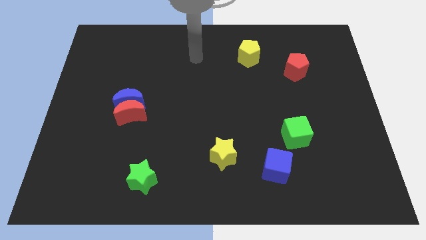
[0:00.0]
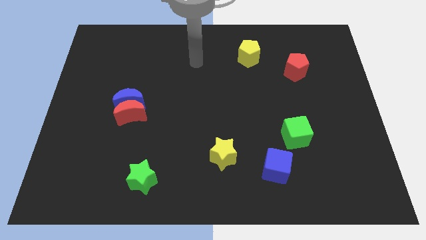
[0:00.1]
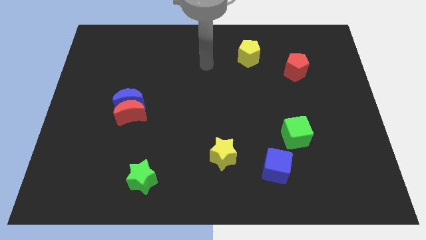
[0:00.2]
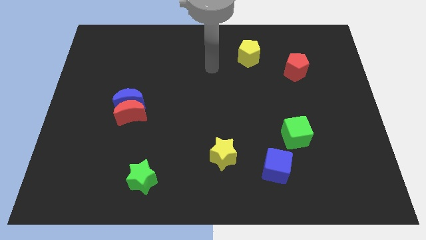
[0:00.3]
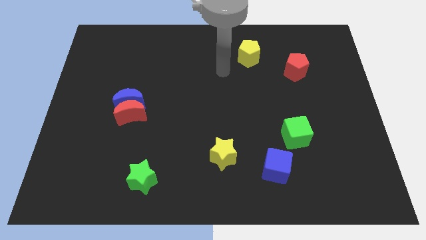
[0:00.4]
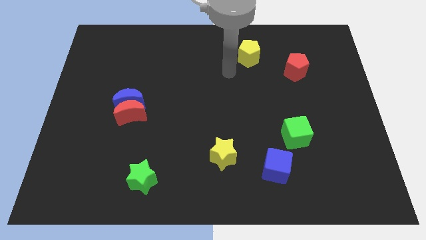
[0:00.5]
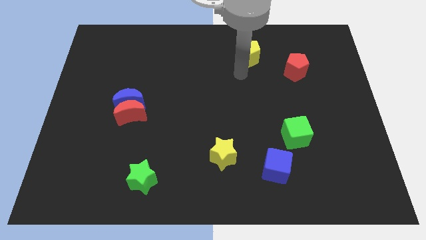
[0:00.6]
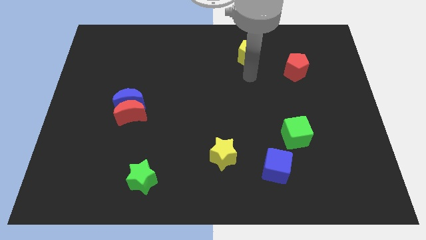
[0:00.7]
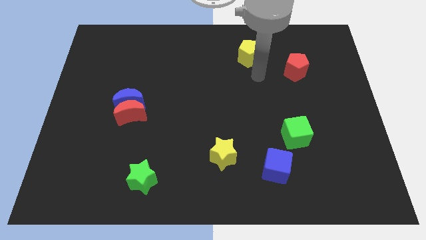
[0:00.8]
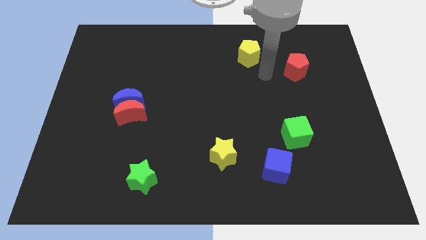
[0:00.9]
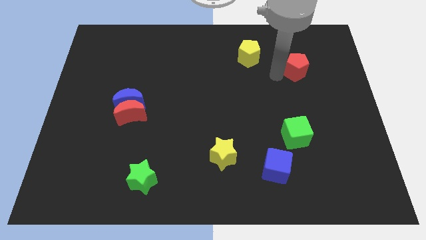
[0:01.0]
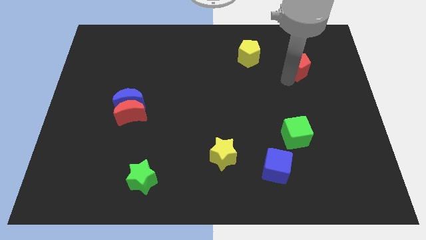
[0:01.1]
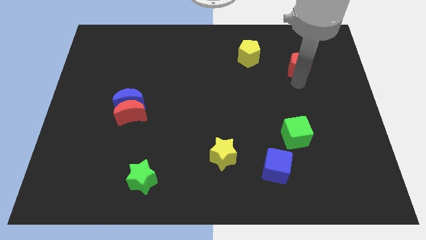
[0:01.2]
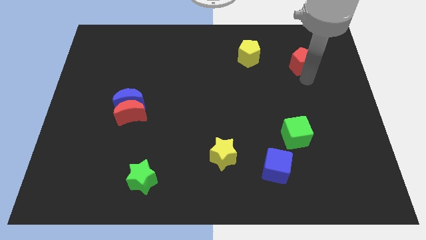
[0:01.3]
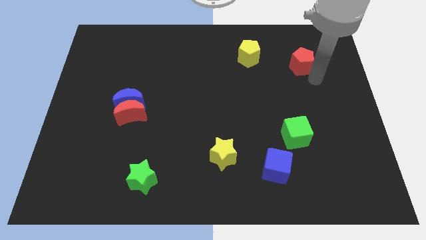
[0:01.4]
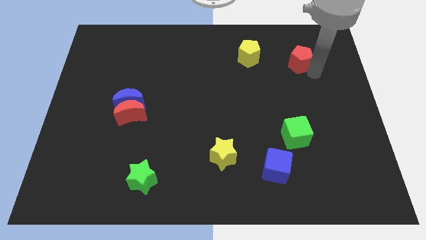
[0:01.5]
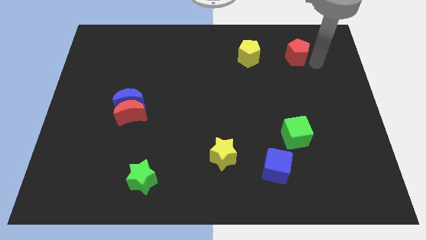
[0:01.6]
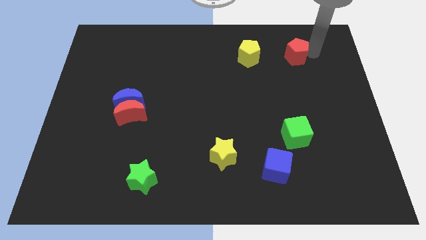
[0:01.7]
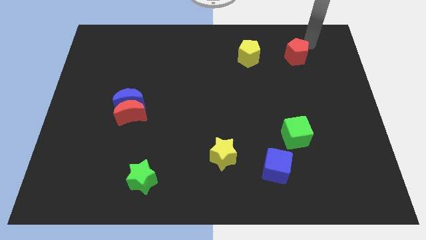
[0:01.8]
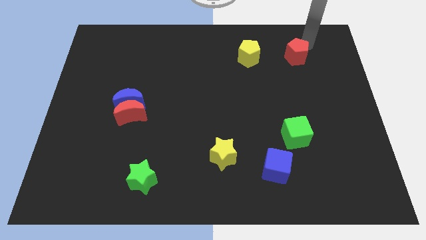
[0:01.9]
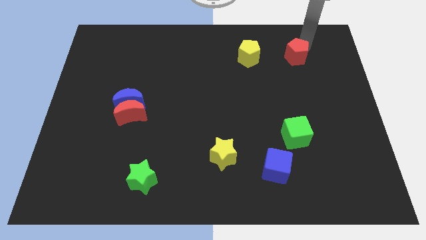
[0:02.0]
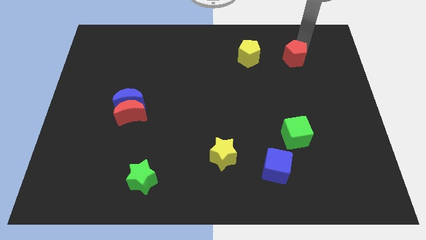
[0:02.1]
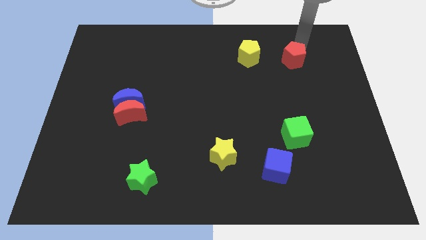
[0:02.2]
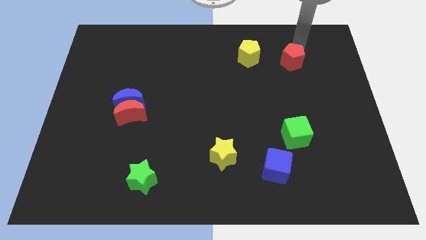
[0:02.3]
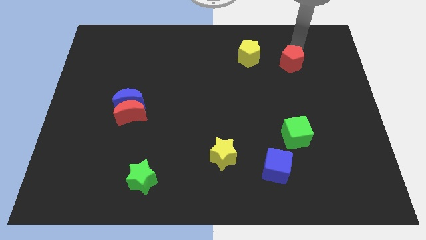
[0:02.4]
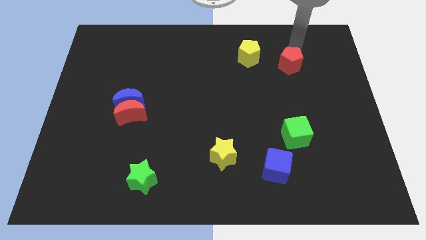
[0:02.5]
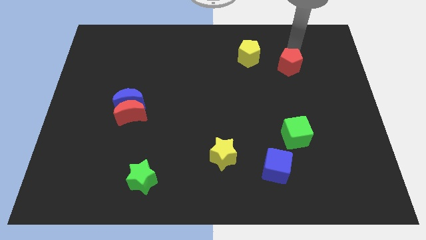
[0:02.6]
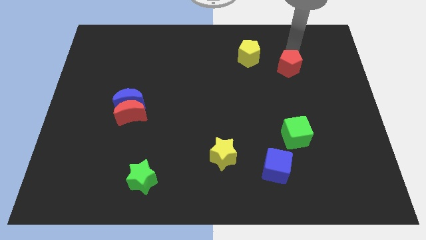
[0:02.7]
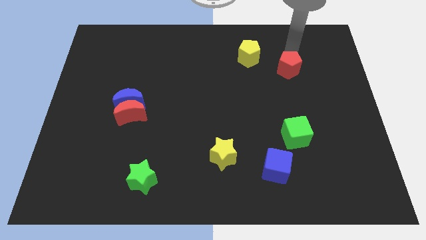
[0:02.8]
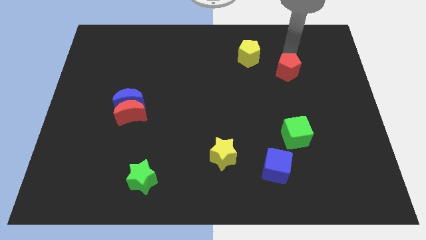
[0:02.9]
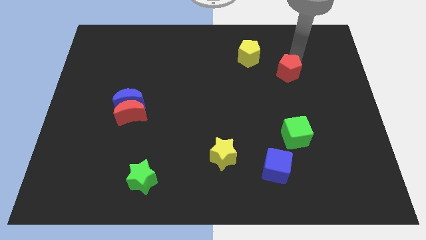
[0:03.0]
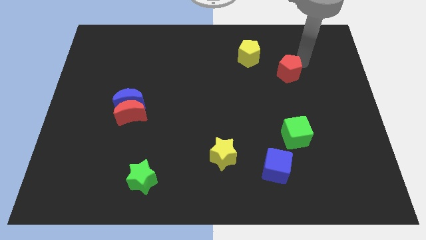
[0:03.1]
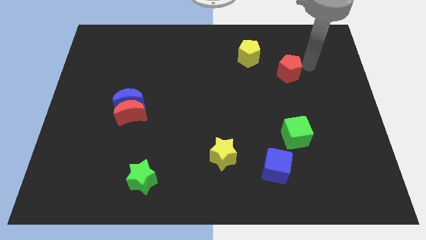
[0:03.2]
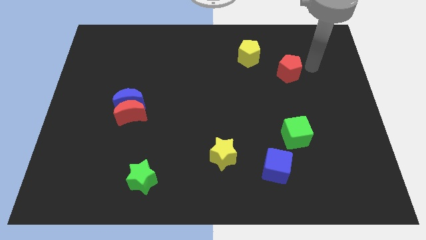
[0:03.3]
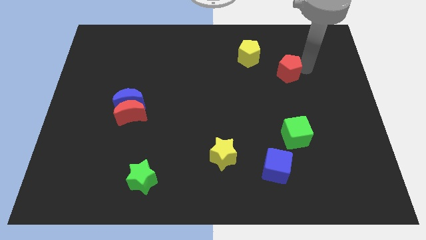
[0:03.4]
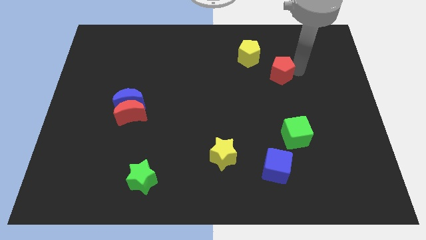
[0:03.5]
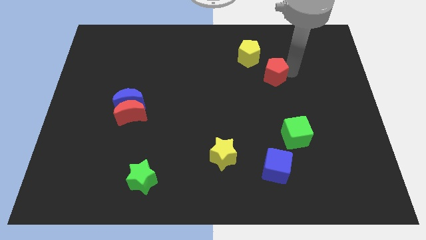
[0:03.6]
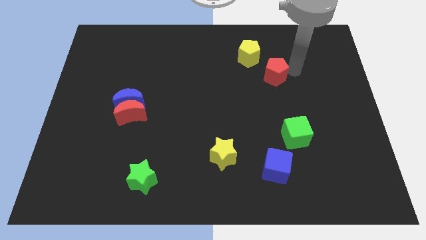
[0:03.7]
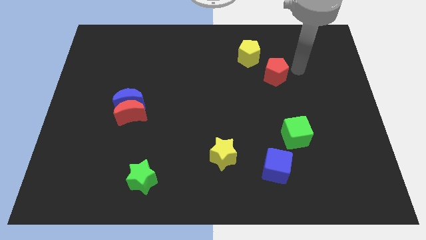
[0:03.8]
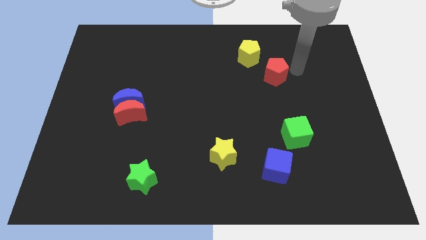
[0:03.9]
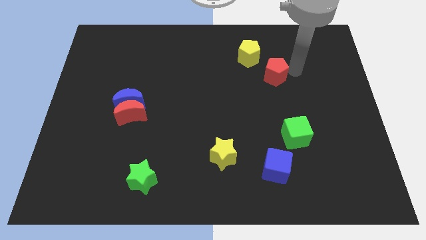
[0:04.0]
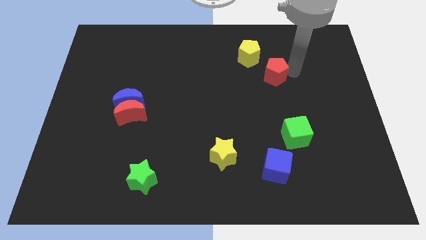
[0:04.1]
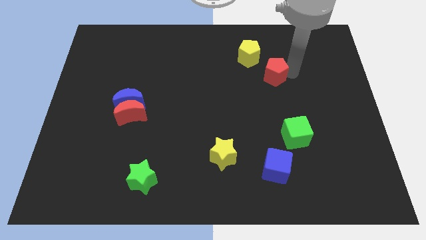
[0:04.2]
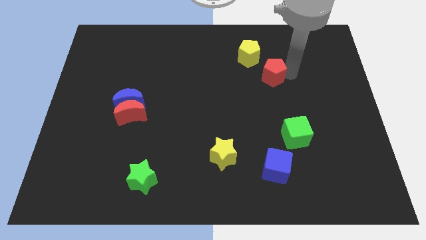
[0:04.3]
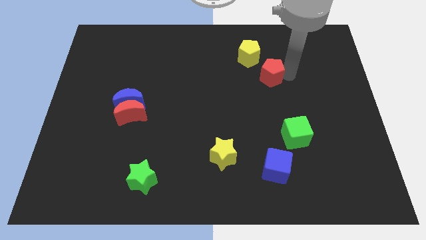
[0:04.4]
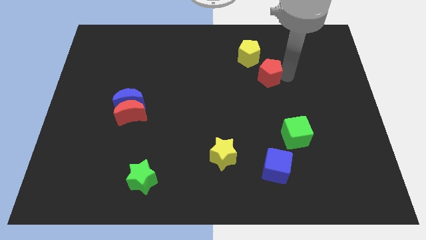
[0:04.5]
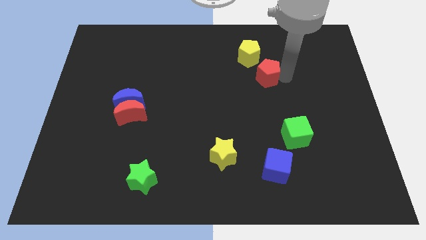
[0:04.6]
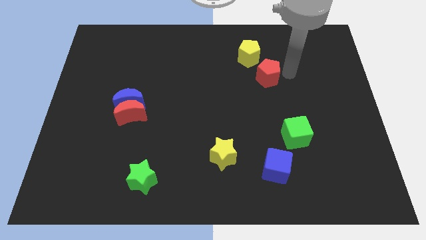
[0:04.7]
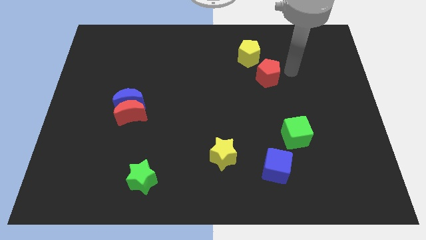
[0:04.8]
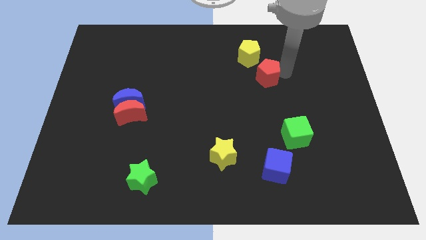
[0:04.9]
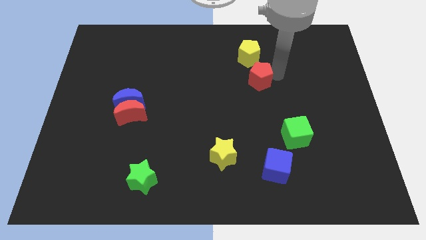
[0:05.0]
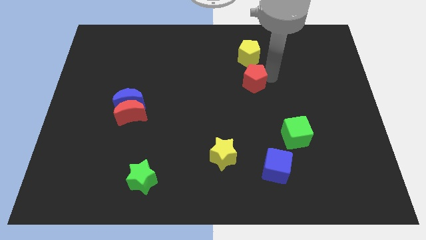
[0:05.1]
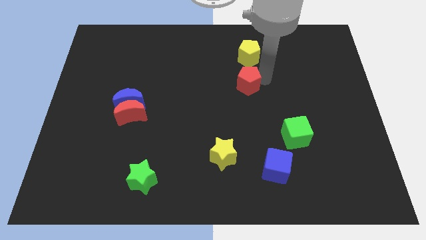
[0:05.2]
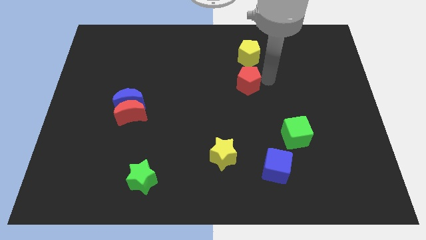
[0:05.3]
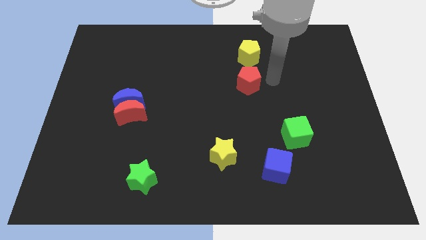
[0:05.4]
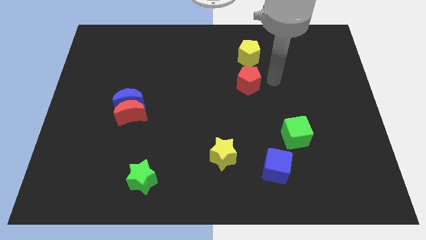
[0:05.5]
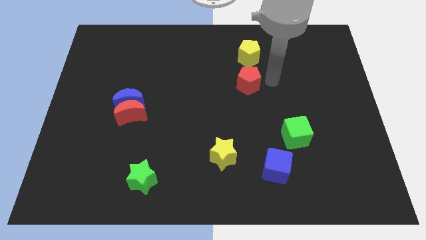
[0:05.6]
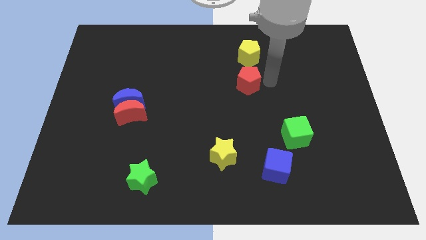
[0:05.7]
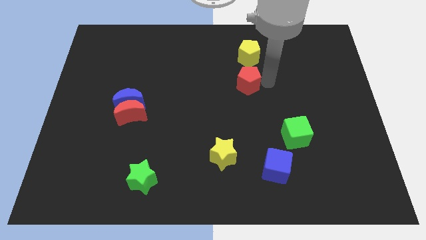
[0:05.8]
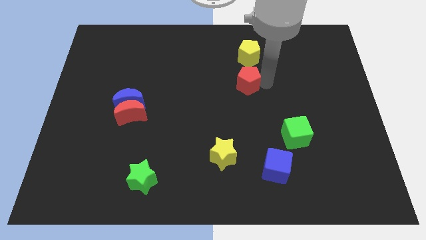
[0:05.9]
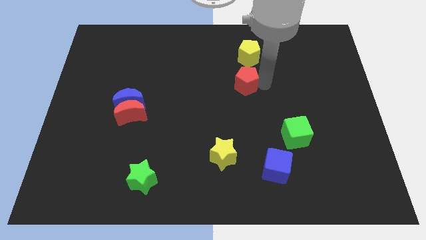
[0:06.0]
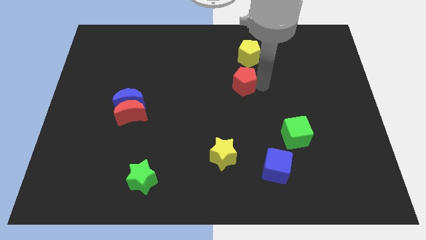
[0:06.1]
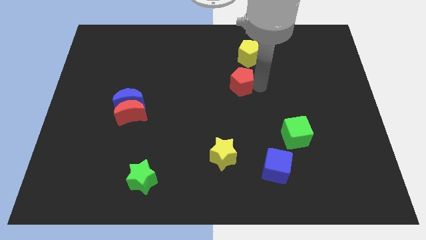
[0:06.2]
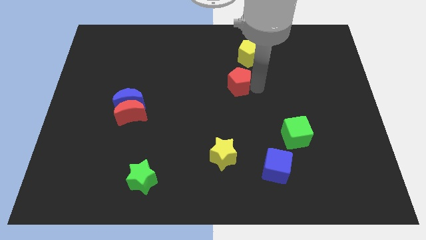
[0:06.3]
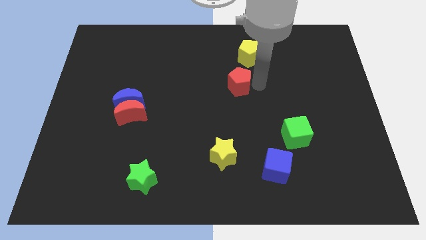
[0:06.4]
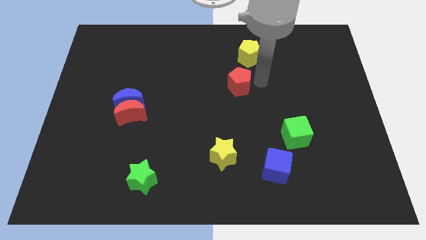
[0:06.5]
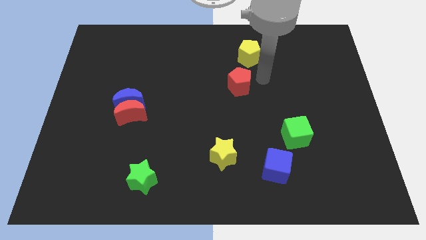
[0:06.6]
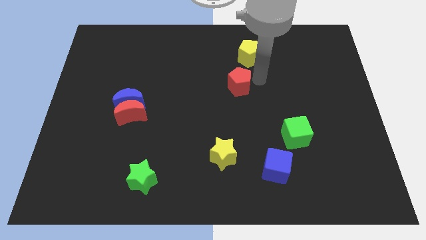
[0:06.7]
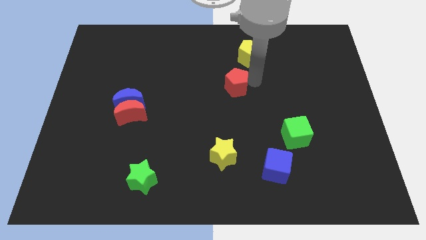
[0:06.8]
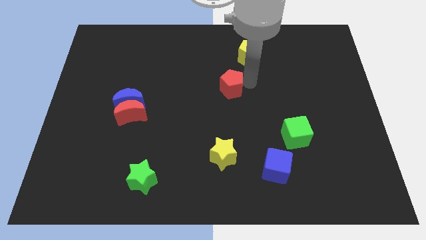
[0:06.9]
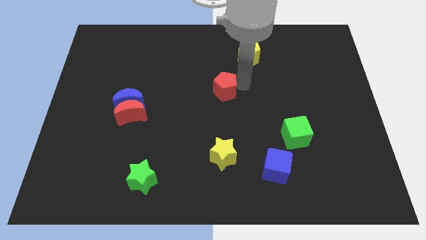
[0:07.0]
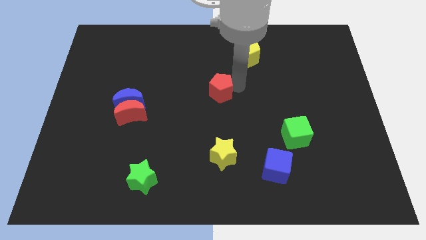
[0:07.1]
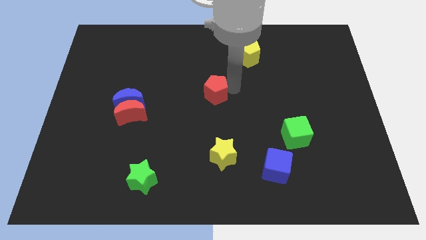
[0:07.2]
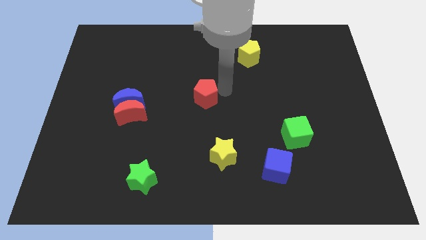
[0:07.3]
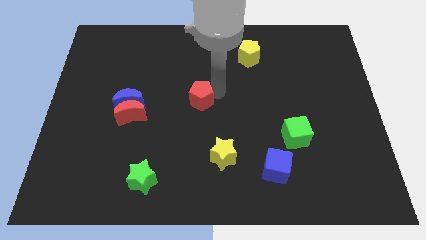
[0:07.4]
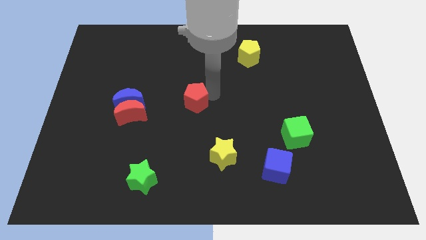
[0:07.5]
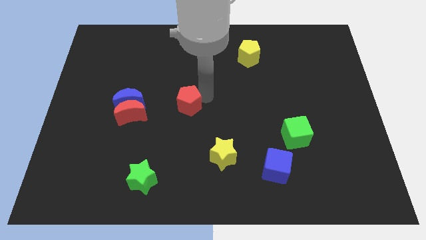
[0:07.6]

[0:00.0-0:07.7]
push the red pentagon to the right of the red moon
